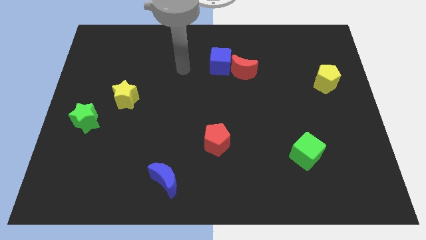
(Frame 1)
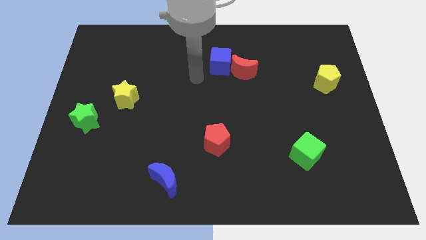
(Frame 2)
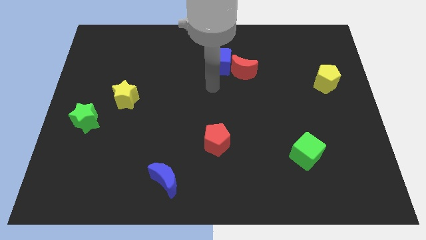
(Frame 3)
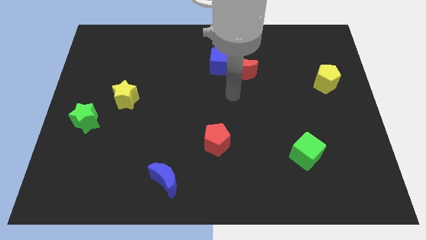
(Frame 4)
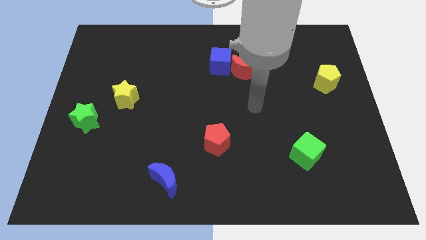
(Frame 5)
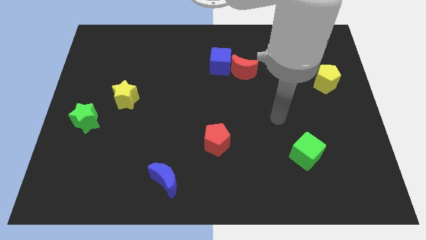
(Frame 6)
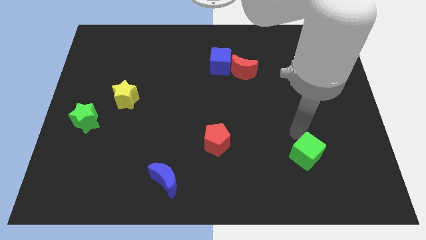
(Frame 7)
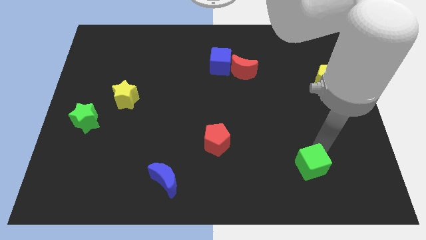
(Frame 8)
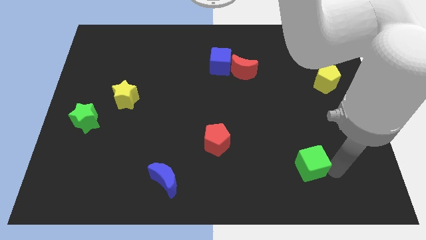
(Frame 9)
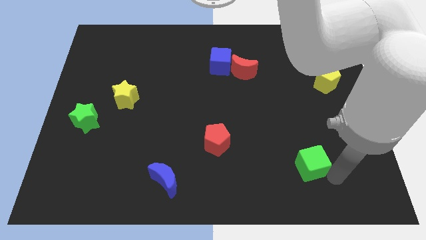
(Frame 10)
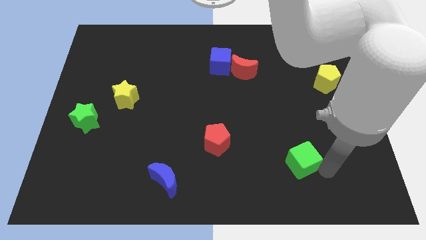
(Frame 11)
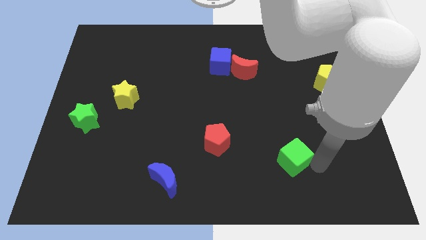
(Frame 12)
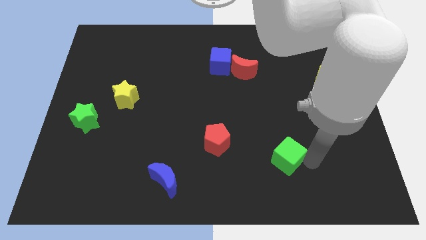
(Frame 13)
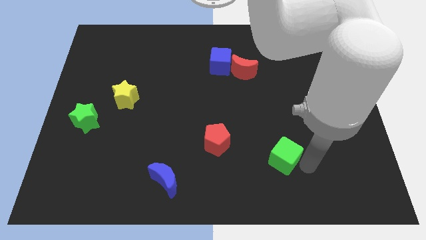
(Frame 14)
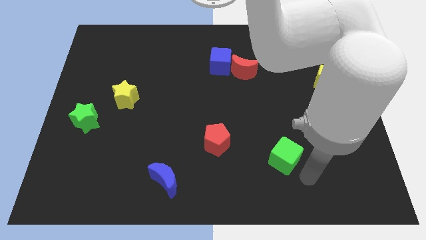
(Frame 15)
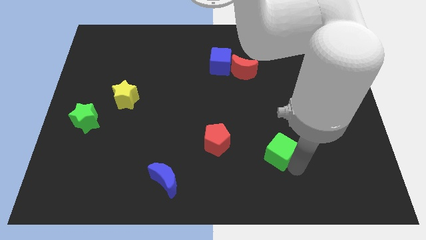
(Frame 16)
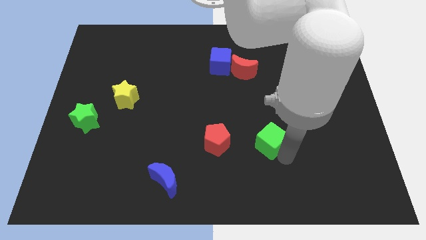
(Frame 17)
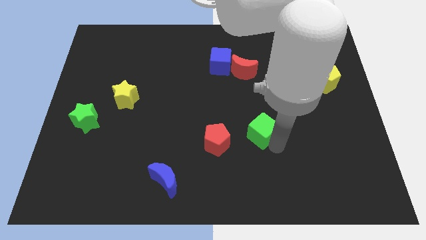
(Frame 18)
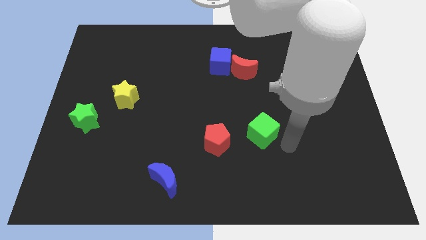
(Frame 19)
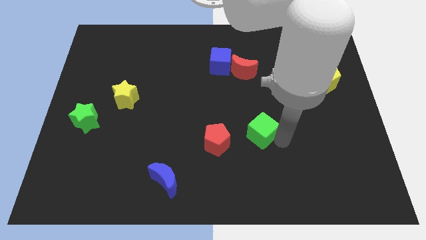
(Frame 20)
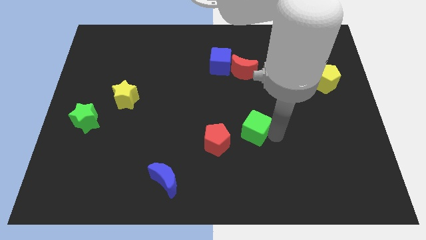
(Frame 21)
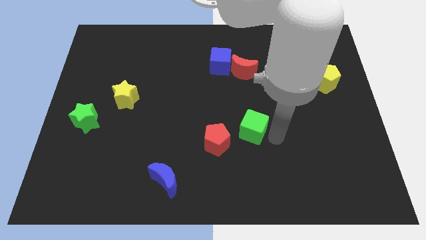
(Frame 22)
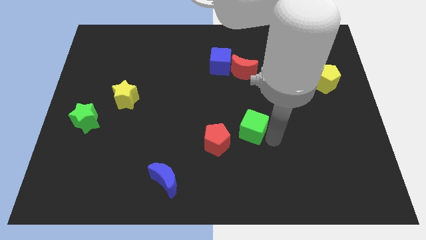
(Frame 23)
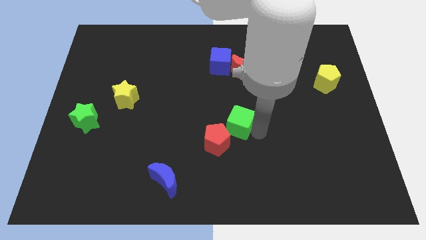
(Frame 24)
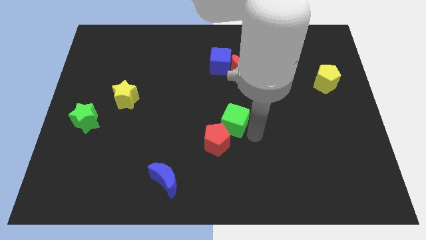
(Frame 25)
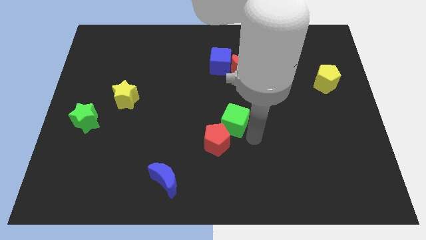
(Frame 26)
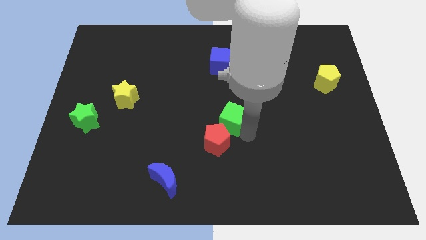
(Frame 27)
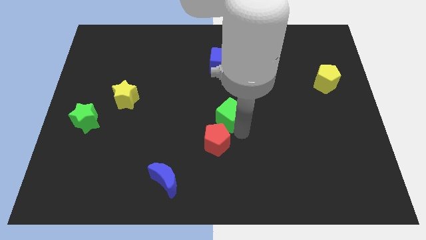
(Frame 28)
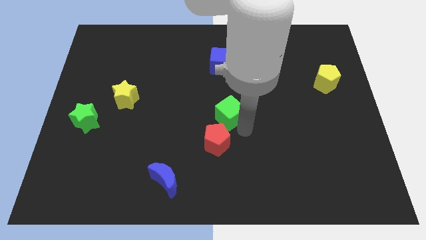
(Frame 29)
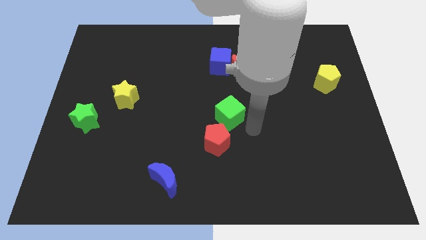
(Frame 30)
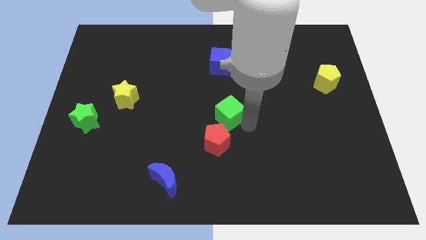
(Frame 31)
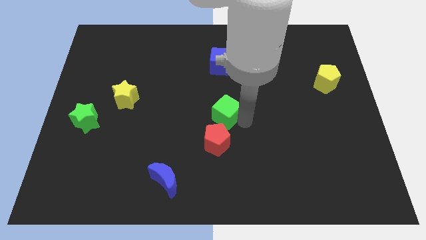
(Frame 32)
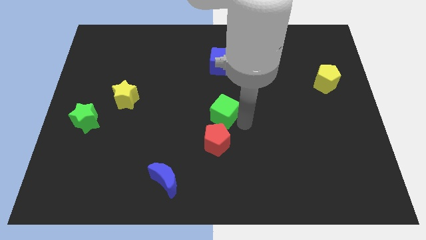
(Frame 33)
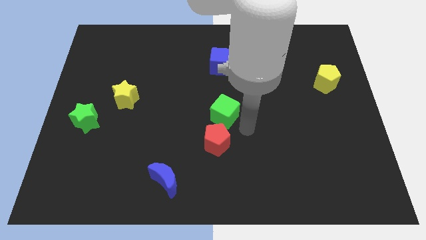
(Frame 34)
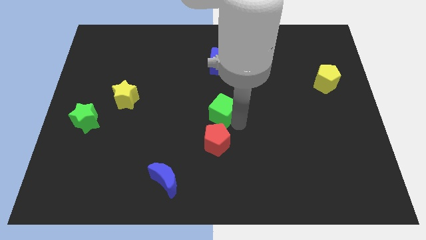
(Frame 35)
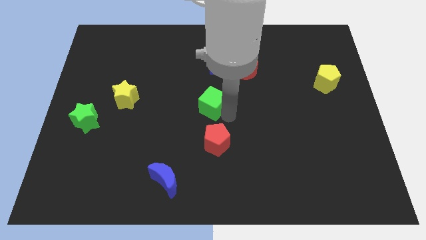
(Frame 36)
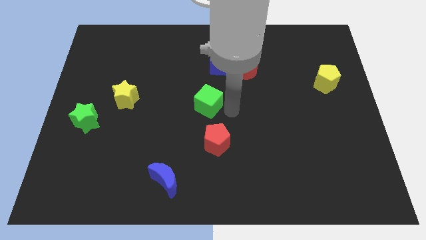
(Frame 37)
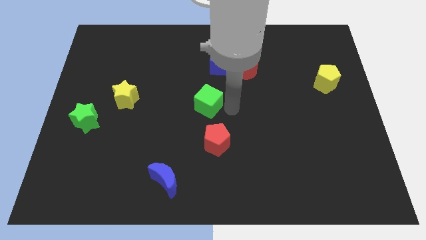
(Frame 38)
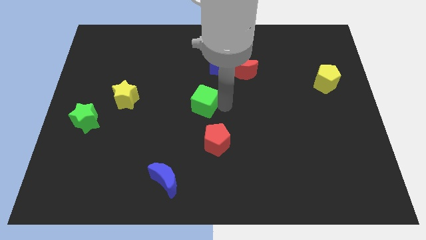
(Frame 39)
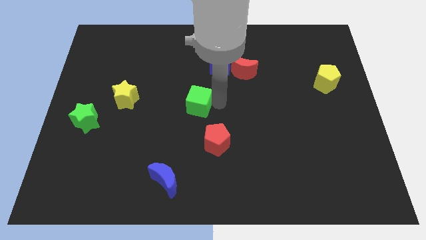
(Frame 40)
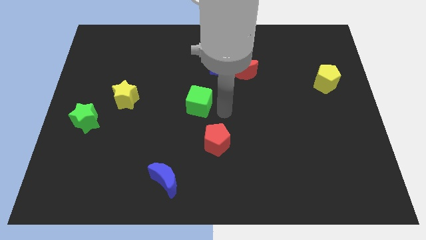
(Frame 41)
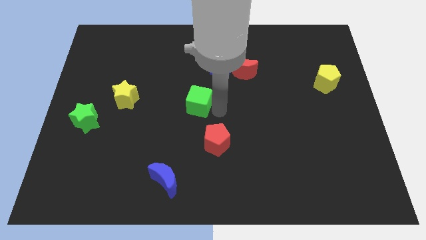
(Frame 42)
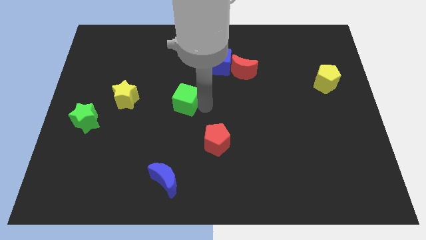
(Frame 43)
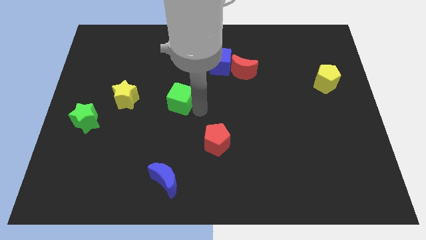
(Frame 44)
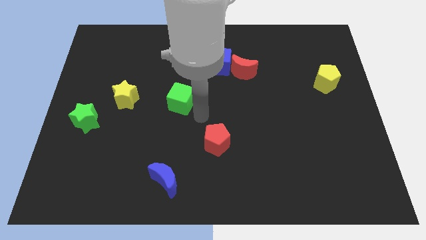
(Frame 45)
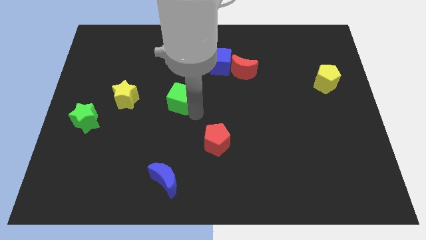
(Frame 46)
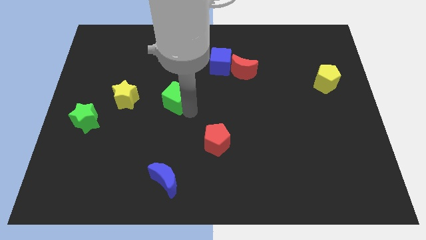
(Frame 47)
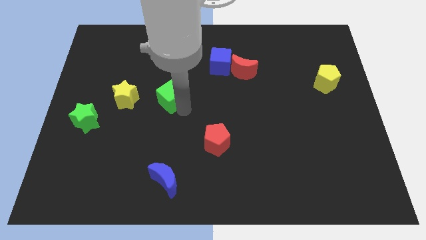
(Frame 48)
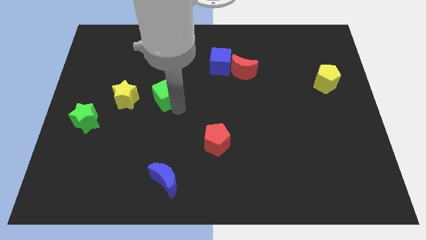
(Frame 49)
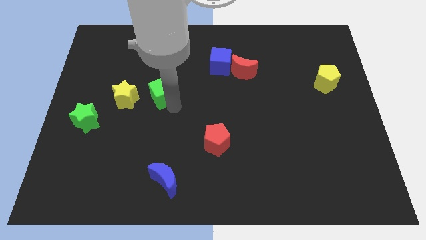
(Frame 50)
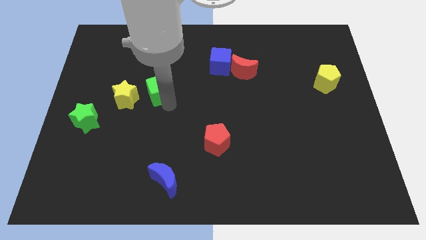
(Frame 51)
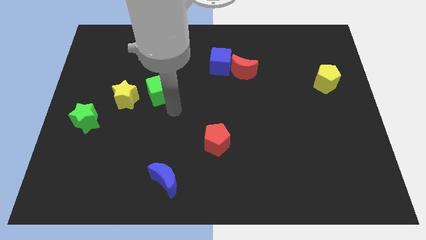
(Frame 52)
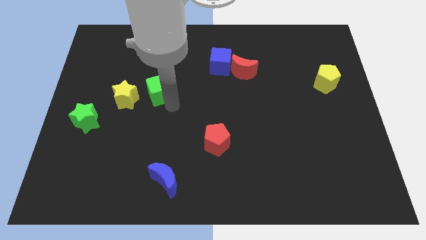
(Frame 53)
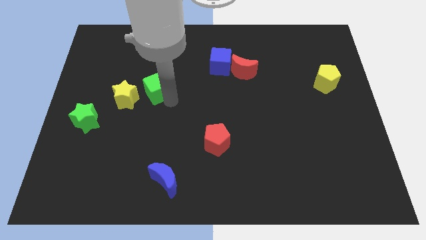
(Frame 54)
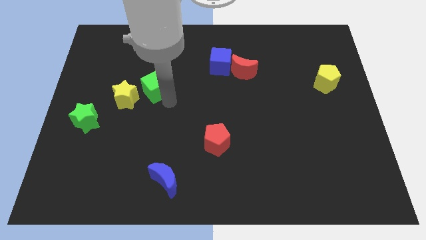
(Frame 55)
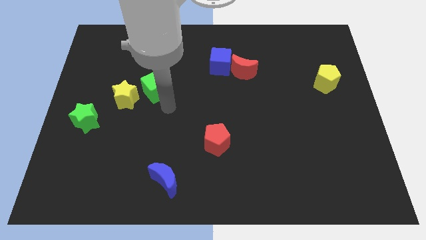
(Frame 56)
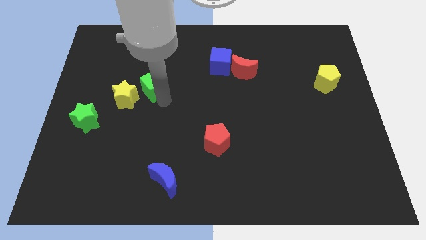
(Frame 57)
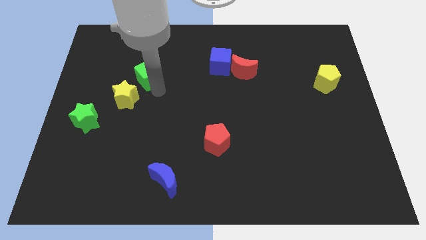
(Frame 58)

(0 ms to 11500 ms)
move the green cube to the top of the yellow star

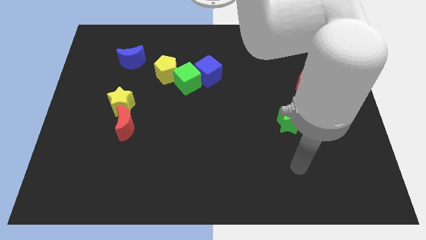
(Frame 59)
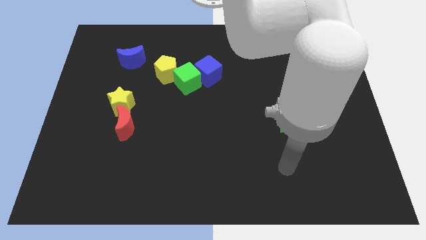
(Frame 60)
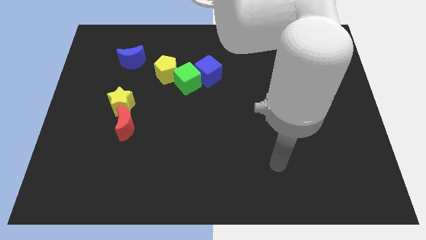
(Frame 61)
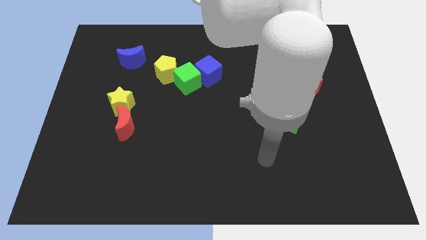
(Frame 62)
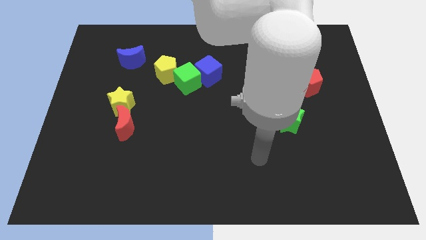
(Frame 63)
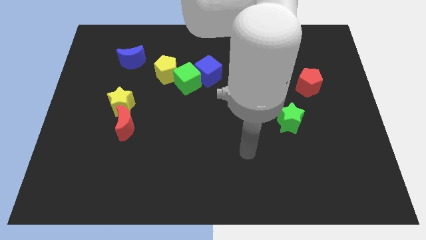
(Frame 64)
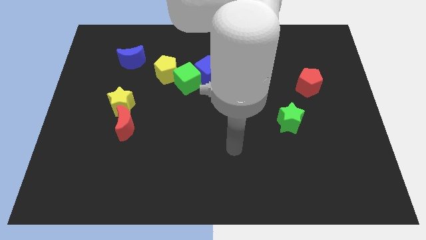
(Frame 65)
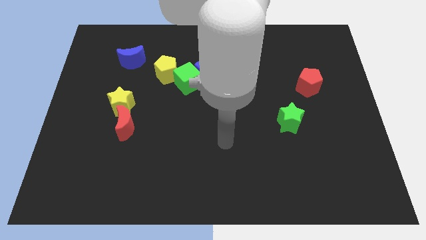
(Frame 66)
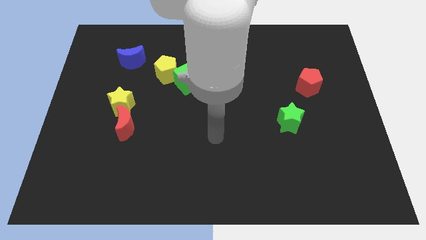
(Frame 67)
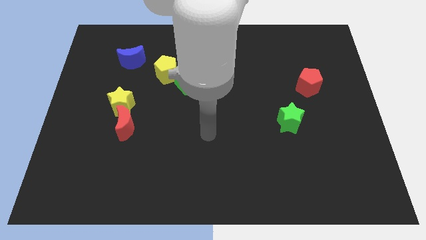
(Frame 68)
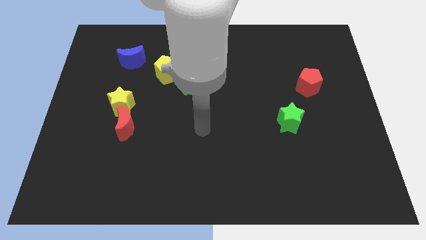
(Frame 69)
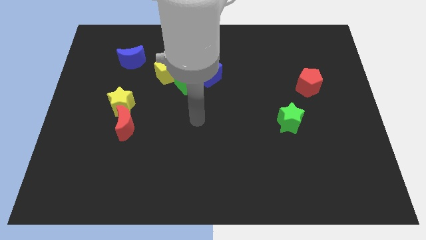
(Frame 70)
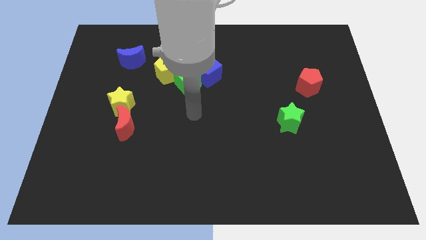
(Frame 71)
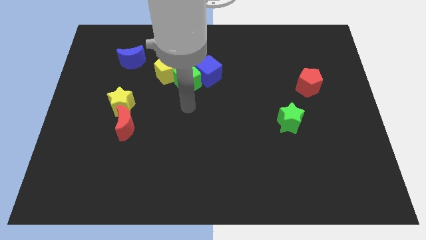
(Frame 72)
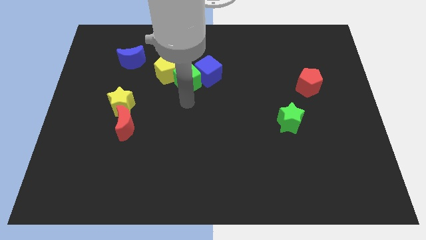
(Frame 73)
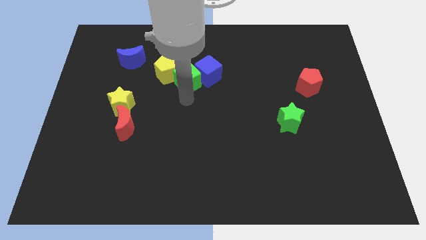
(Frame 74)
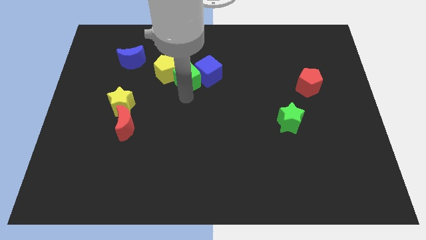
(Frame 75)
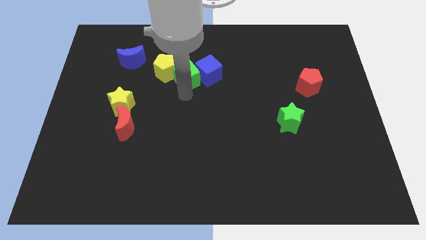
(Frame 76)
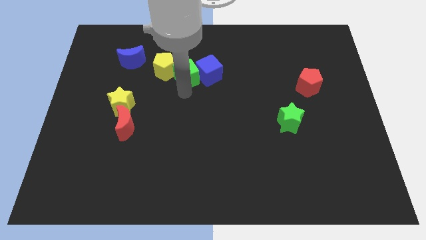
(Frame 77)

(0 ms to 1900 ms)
move the green cube to the top left of the blue cube
